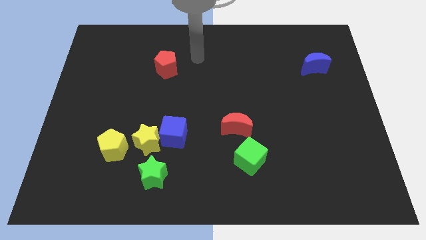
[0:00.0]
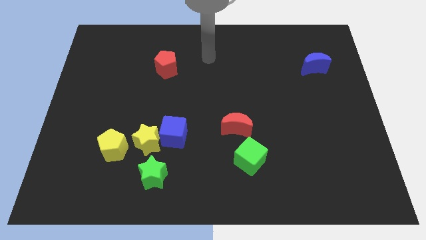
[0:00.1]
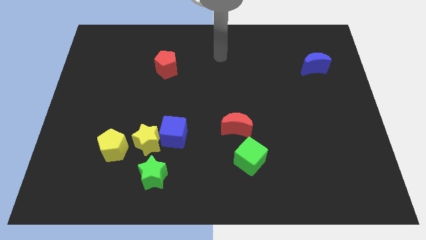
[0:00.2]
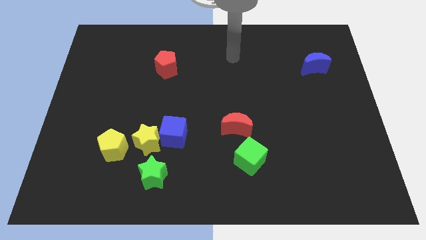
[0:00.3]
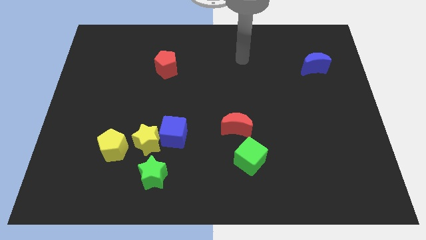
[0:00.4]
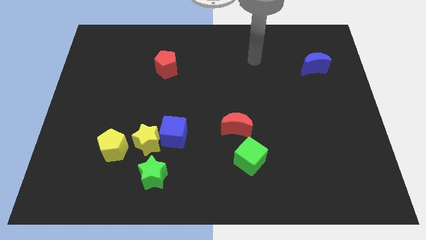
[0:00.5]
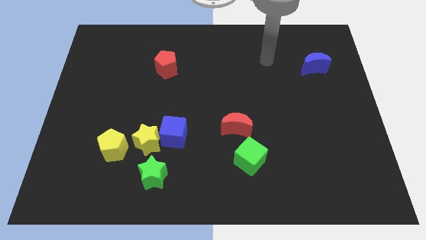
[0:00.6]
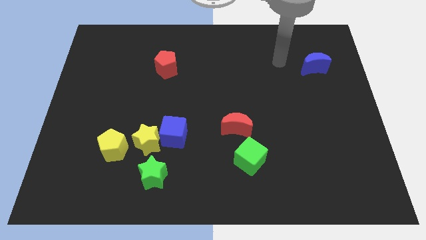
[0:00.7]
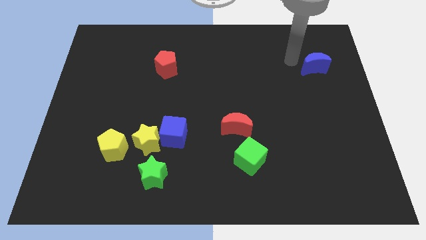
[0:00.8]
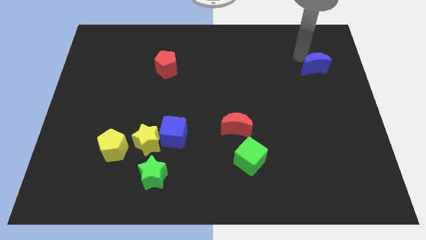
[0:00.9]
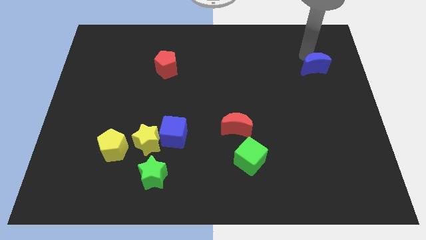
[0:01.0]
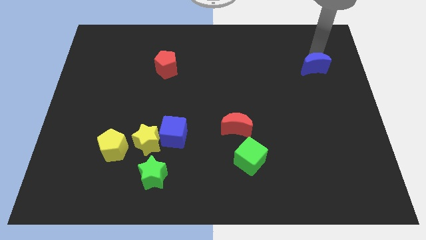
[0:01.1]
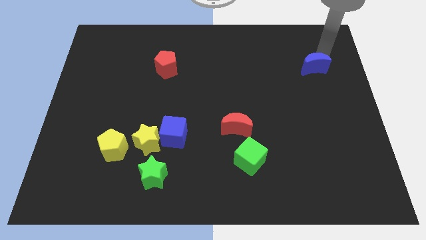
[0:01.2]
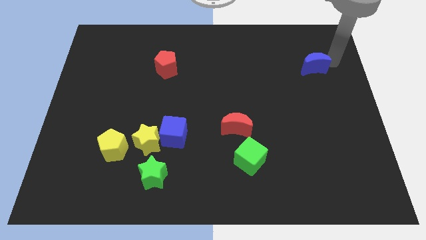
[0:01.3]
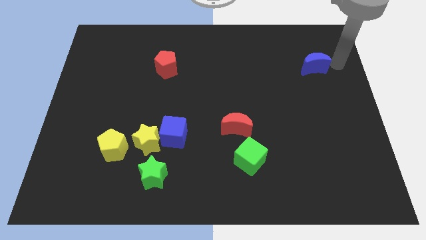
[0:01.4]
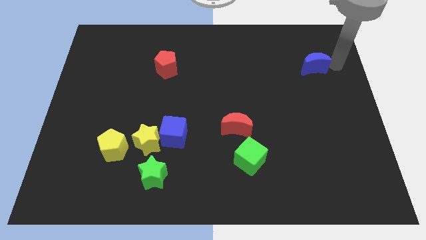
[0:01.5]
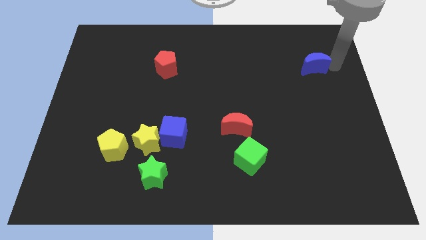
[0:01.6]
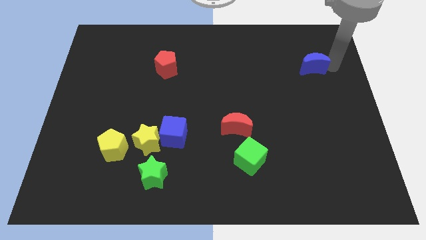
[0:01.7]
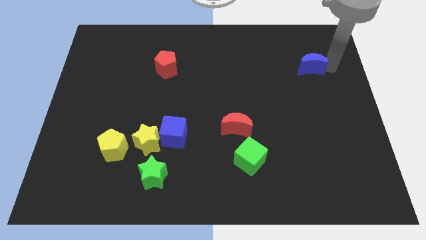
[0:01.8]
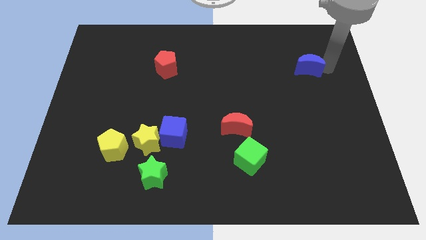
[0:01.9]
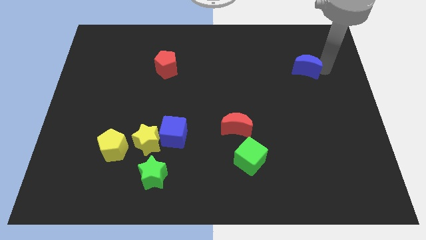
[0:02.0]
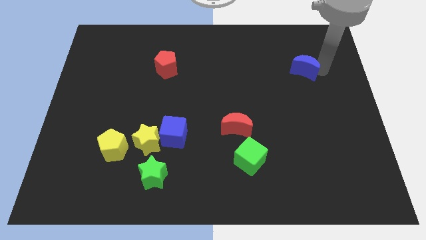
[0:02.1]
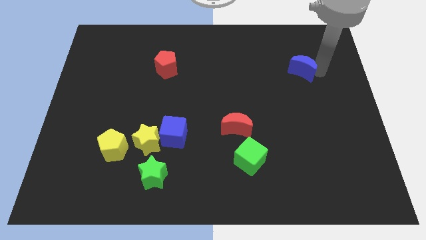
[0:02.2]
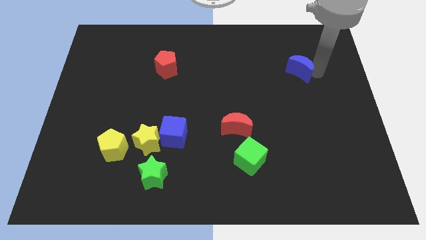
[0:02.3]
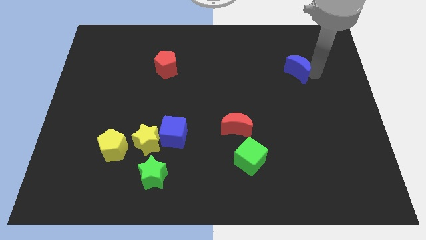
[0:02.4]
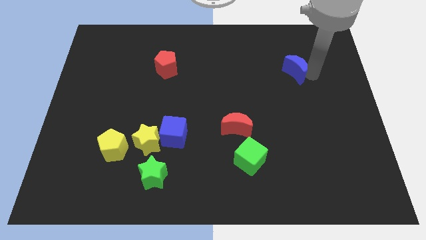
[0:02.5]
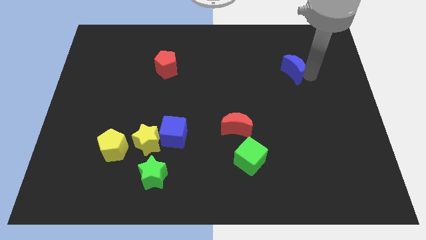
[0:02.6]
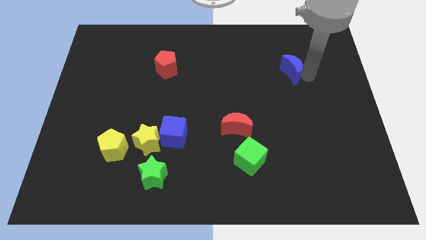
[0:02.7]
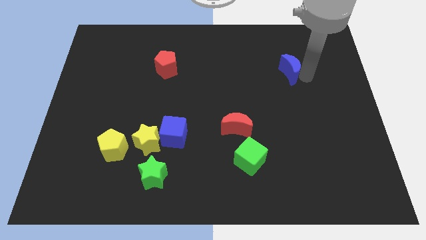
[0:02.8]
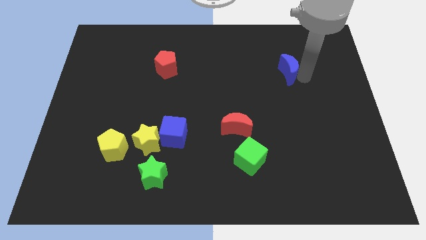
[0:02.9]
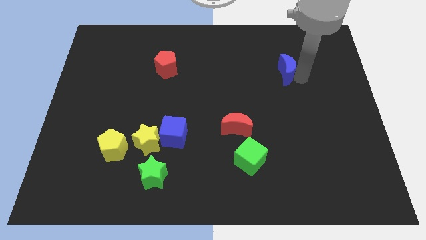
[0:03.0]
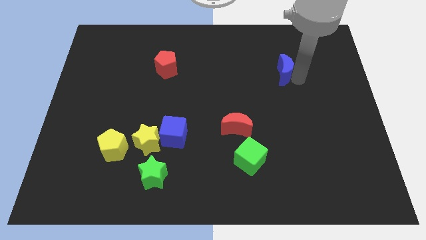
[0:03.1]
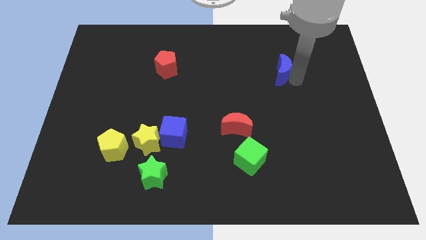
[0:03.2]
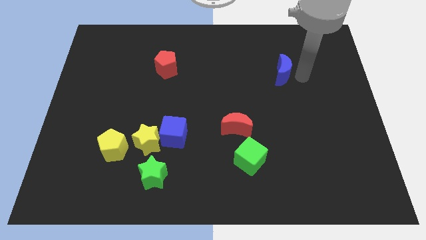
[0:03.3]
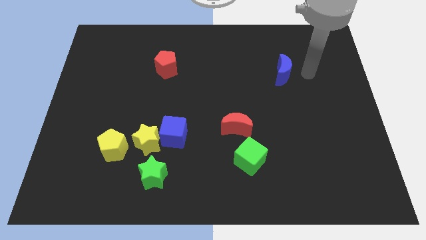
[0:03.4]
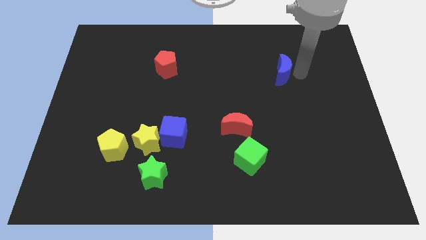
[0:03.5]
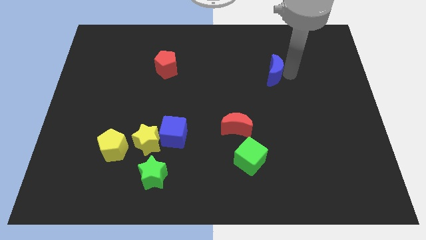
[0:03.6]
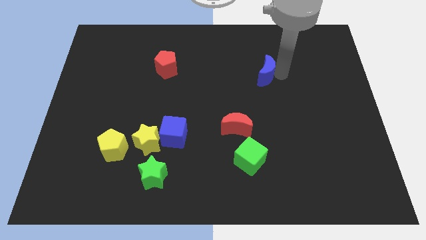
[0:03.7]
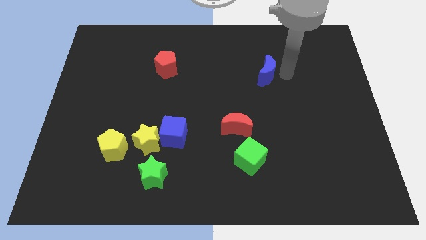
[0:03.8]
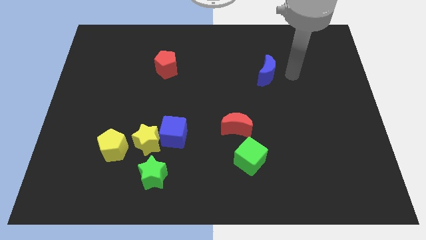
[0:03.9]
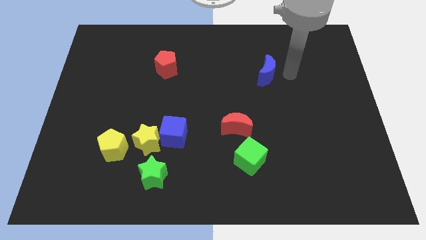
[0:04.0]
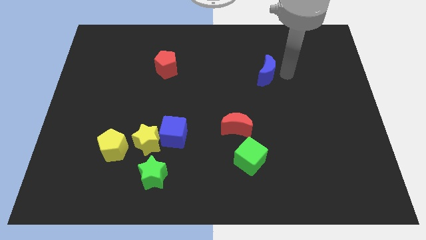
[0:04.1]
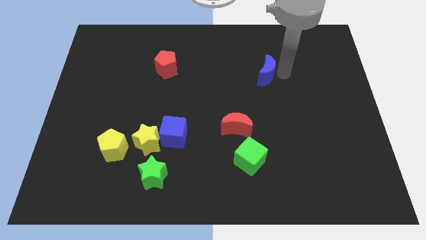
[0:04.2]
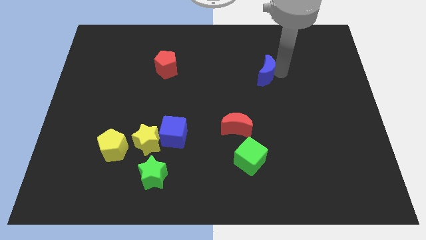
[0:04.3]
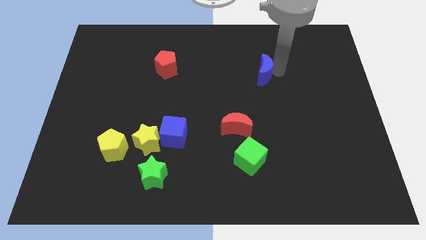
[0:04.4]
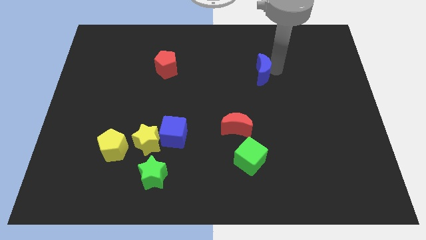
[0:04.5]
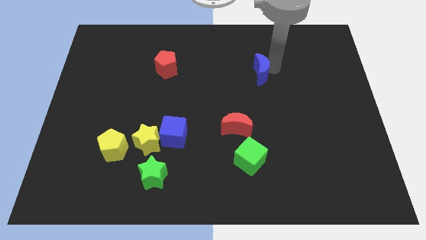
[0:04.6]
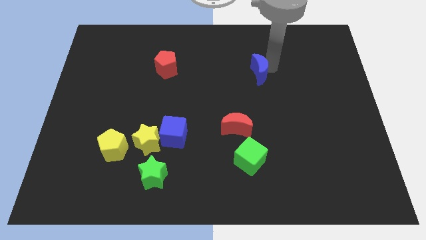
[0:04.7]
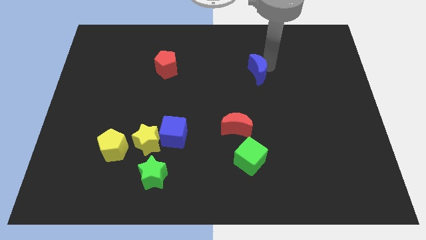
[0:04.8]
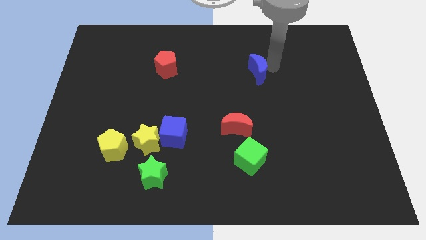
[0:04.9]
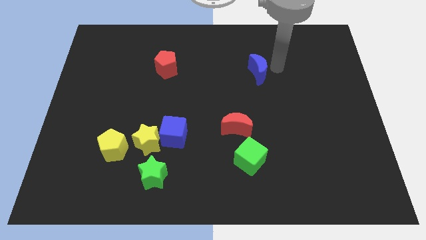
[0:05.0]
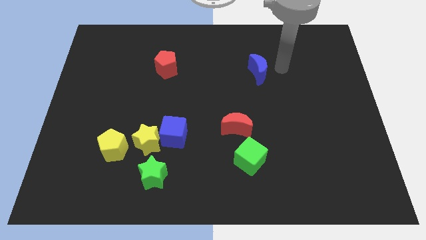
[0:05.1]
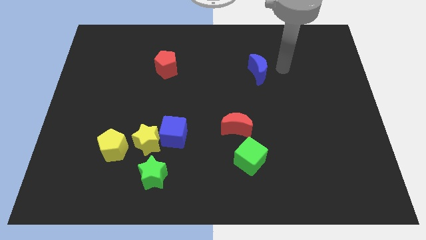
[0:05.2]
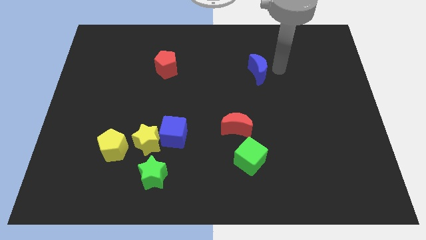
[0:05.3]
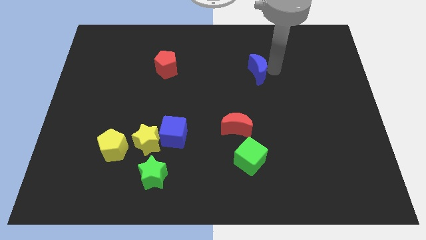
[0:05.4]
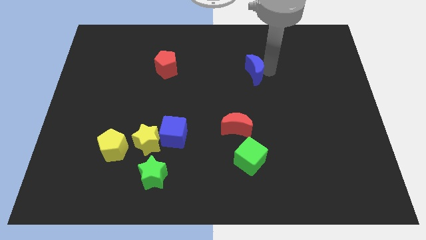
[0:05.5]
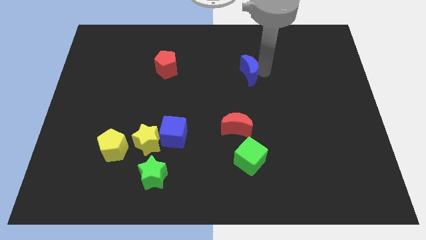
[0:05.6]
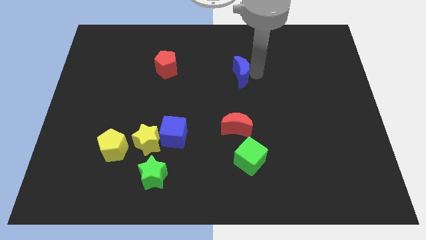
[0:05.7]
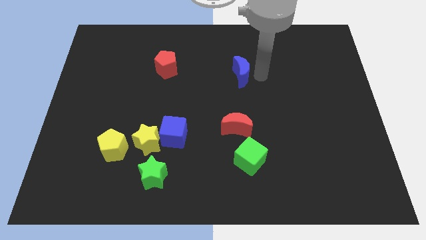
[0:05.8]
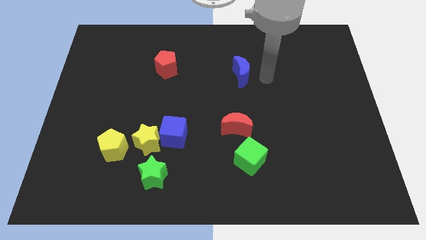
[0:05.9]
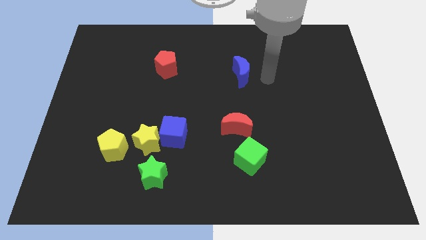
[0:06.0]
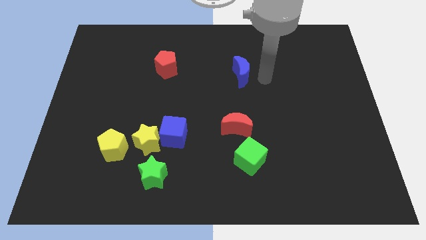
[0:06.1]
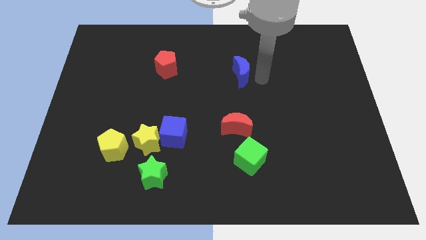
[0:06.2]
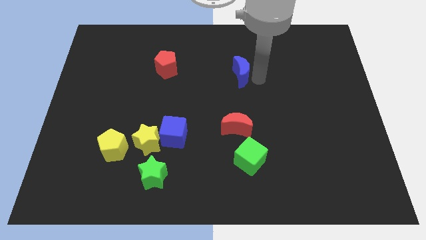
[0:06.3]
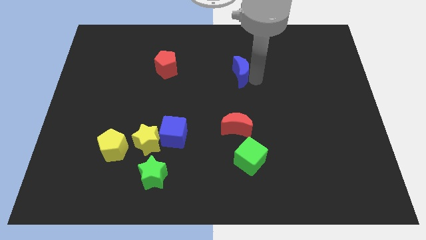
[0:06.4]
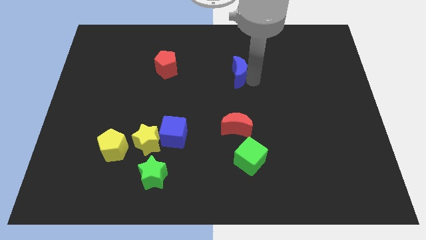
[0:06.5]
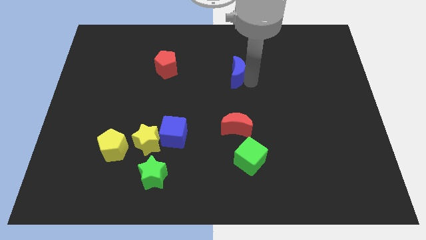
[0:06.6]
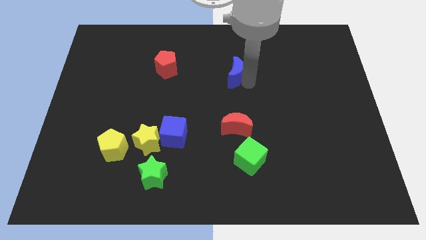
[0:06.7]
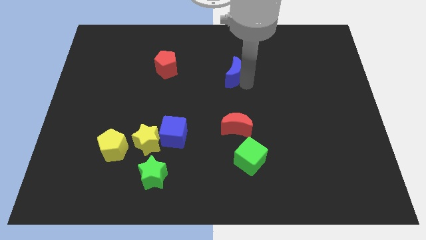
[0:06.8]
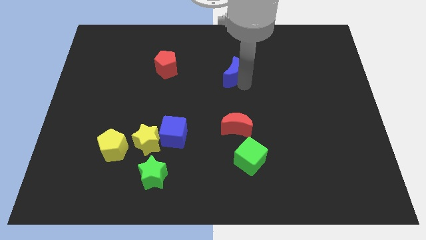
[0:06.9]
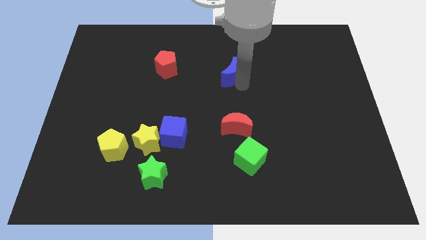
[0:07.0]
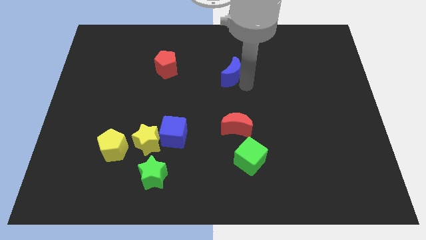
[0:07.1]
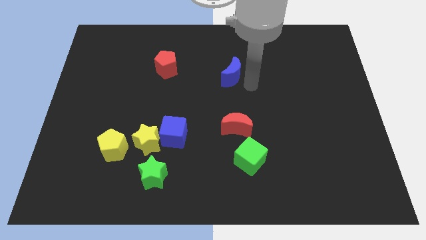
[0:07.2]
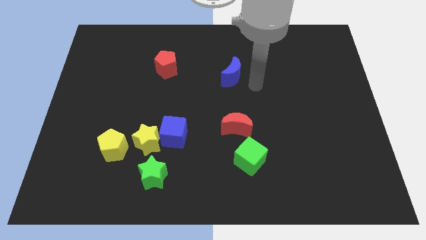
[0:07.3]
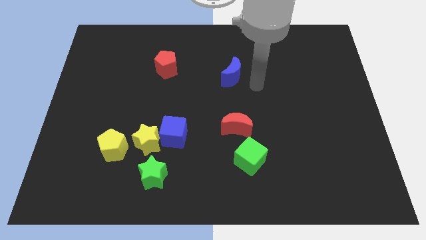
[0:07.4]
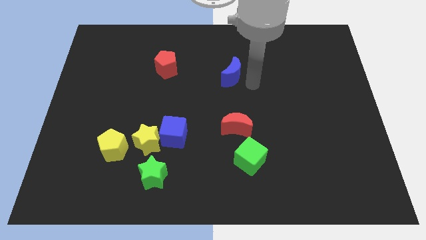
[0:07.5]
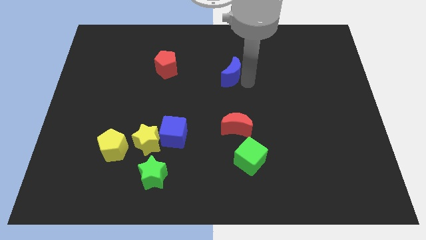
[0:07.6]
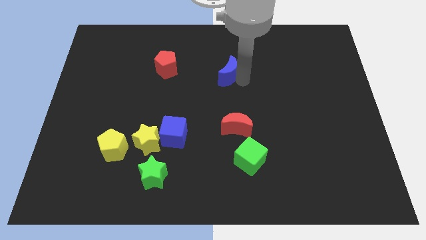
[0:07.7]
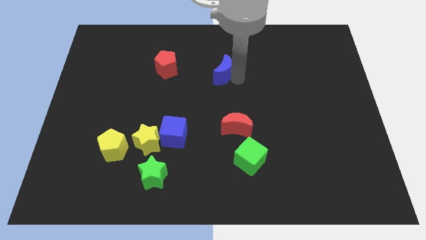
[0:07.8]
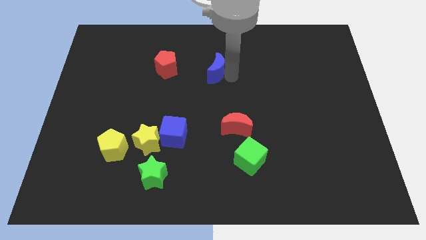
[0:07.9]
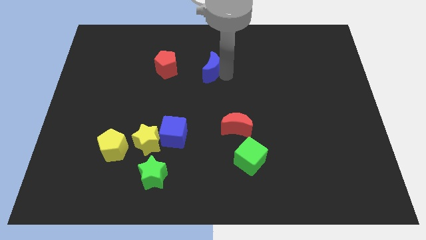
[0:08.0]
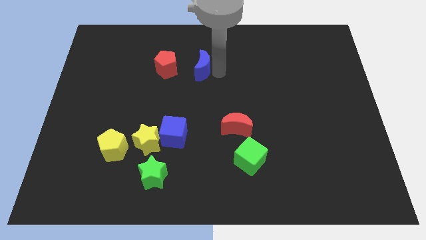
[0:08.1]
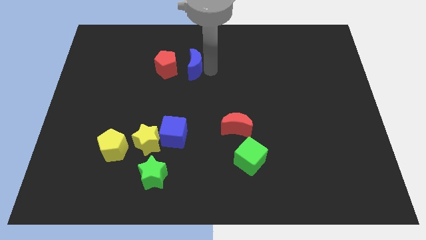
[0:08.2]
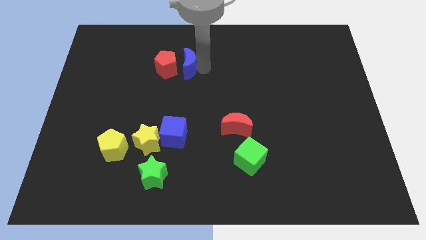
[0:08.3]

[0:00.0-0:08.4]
push the blue moon to the red pentagon
